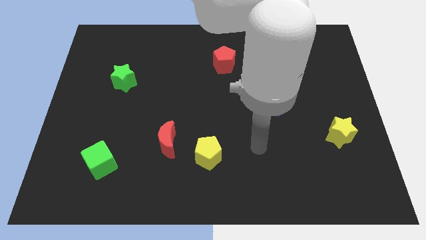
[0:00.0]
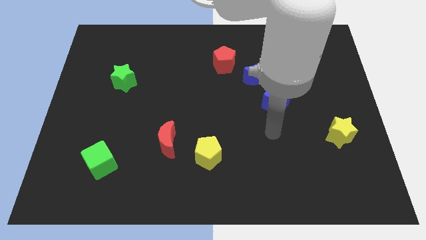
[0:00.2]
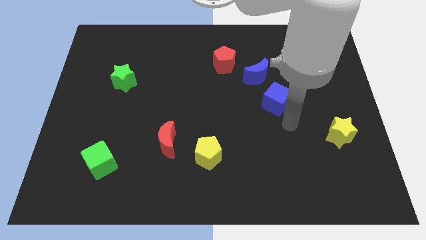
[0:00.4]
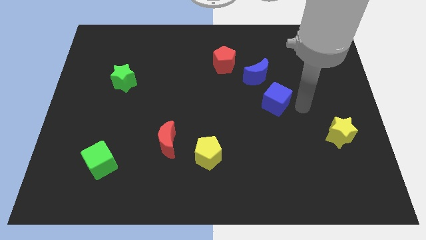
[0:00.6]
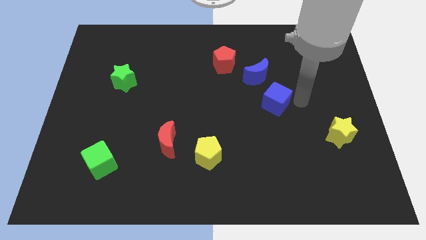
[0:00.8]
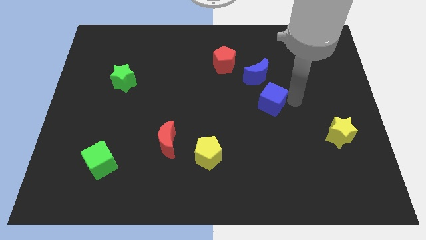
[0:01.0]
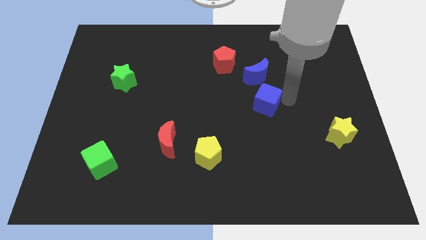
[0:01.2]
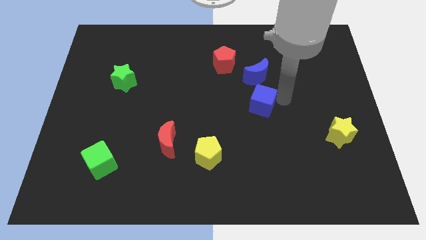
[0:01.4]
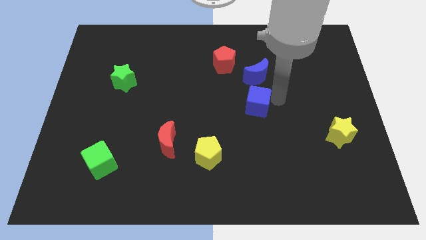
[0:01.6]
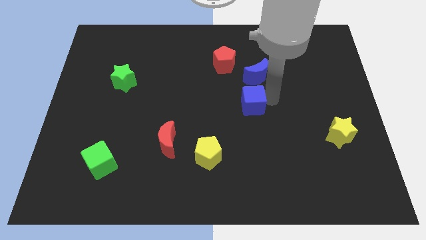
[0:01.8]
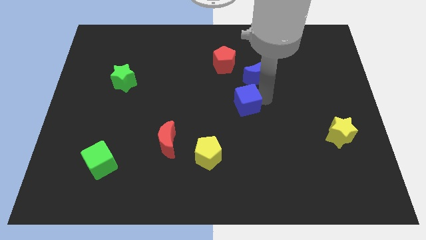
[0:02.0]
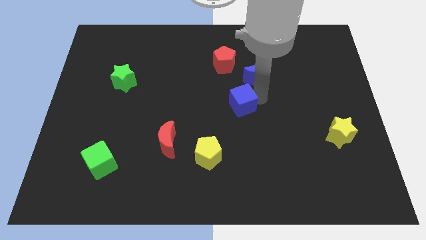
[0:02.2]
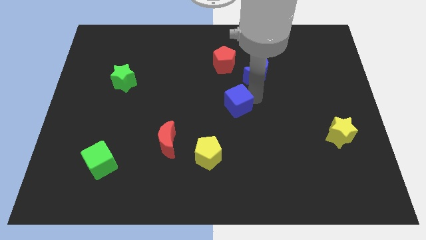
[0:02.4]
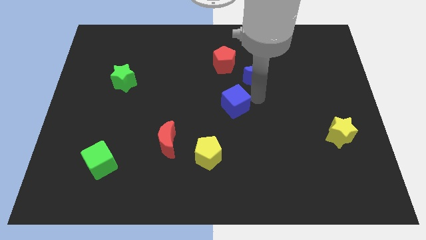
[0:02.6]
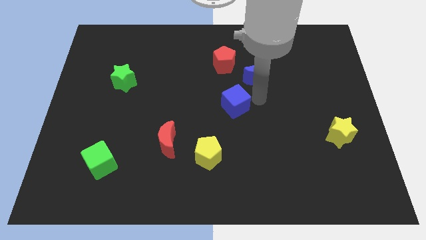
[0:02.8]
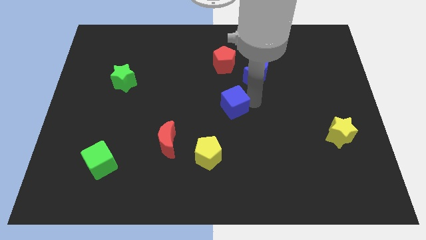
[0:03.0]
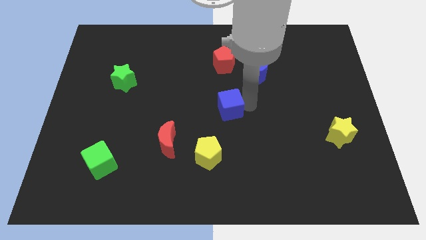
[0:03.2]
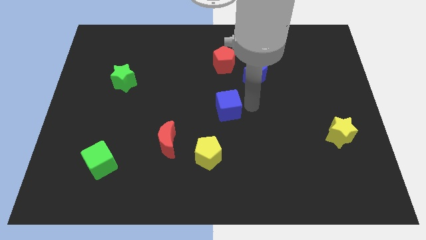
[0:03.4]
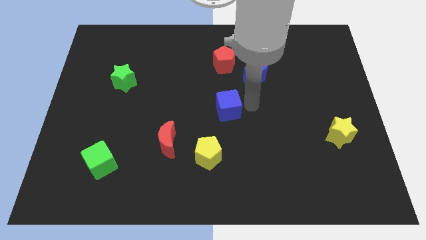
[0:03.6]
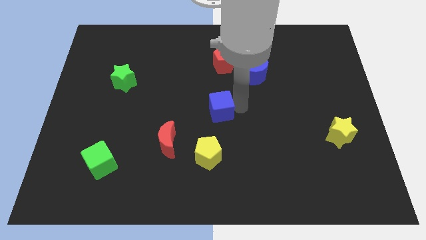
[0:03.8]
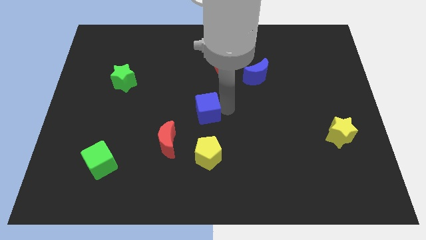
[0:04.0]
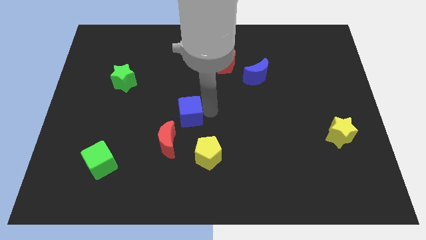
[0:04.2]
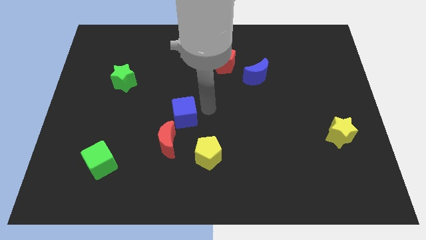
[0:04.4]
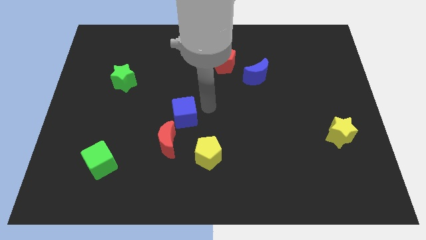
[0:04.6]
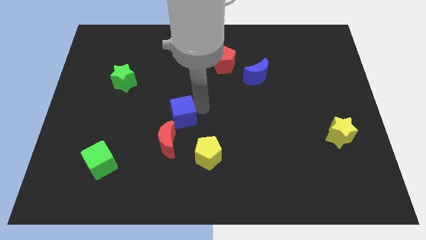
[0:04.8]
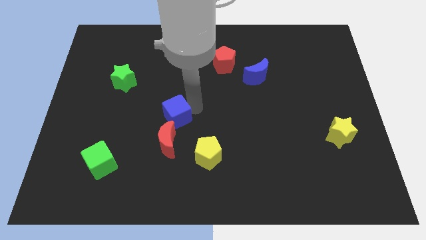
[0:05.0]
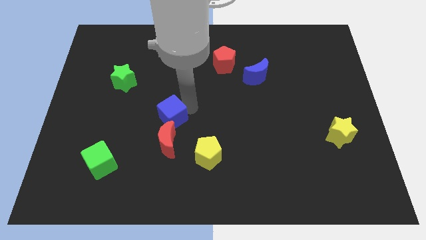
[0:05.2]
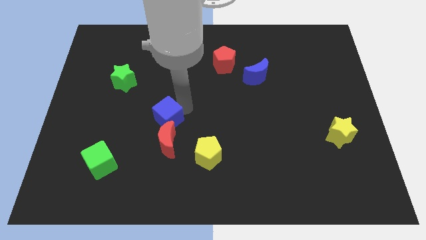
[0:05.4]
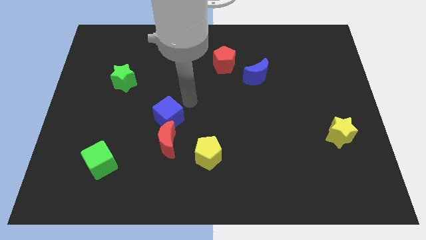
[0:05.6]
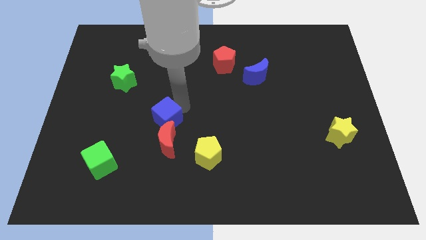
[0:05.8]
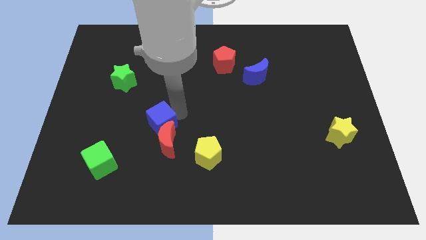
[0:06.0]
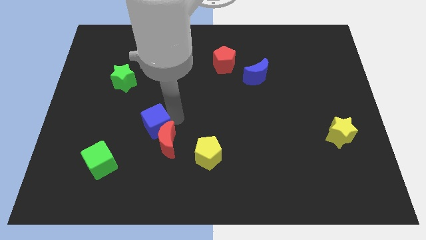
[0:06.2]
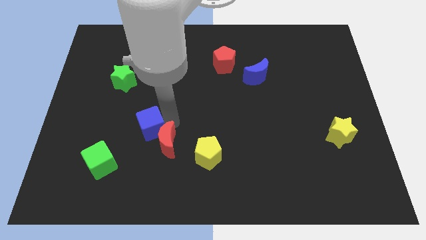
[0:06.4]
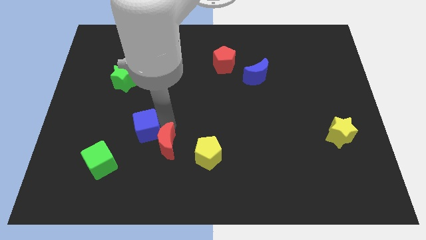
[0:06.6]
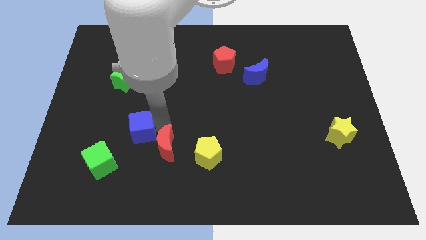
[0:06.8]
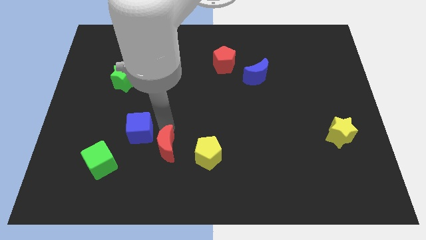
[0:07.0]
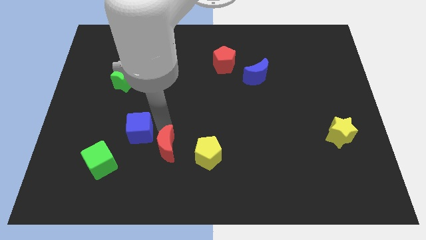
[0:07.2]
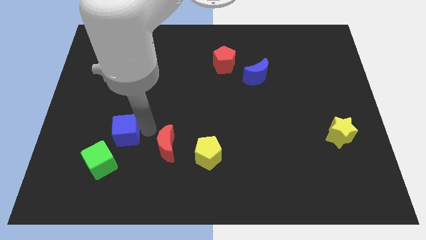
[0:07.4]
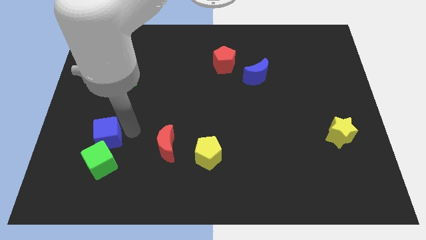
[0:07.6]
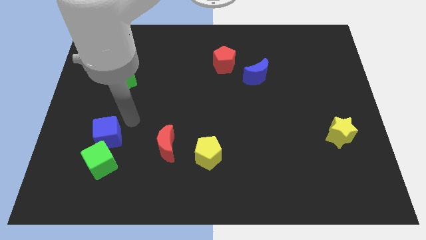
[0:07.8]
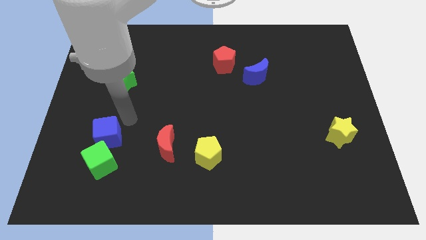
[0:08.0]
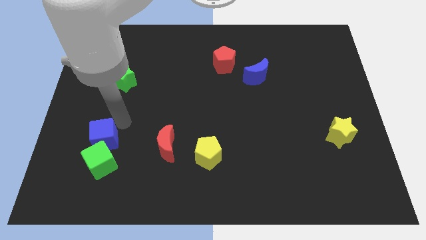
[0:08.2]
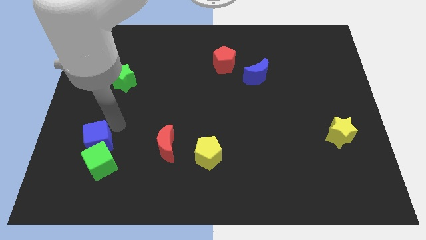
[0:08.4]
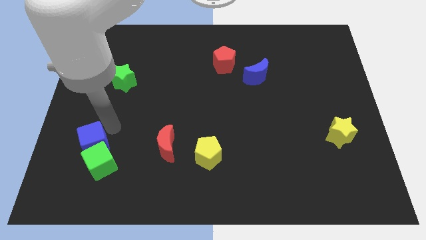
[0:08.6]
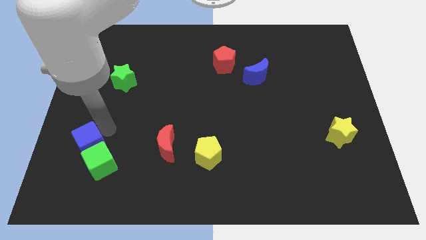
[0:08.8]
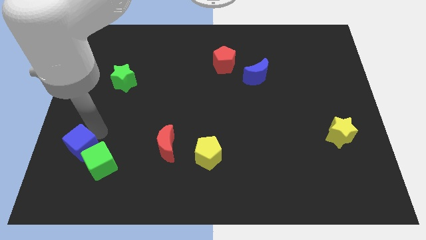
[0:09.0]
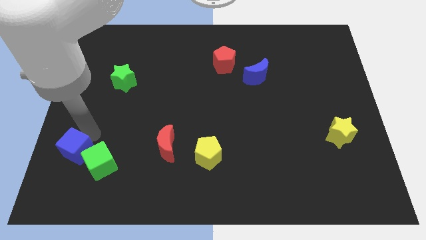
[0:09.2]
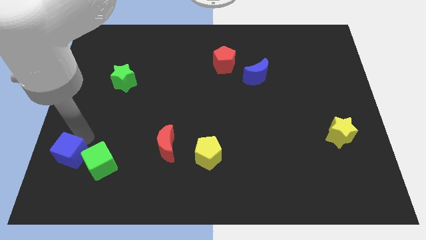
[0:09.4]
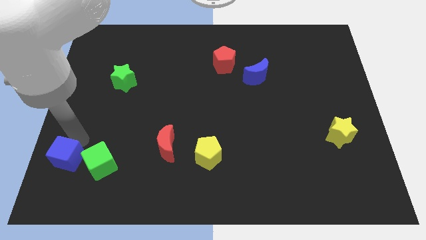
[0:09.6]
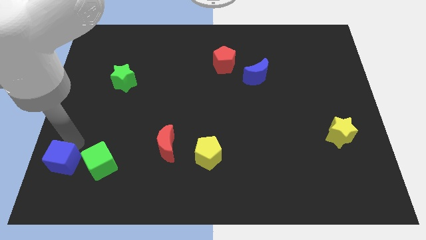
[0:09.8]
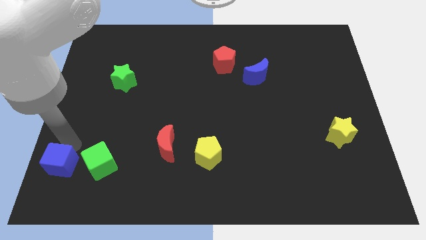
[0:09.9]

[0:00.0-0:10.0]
push the blue cube to the lower left corner

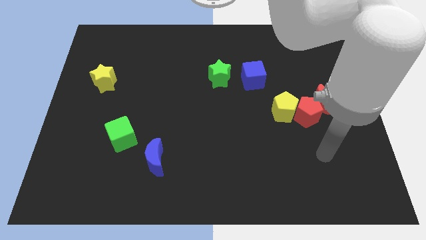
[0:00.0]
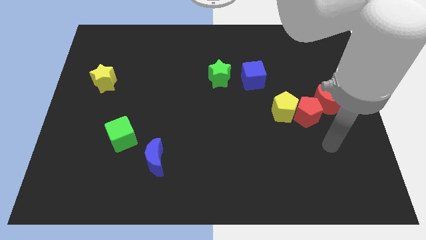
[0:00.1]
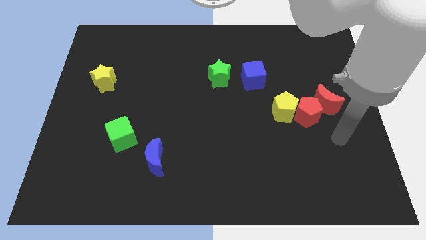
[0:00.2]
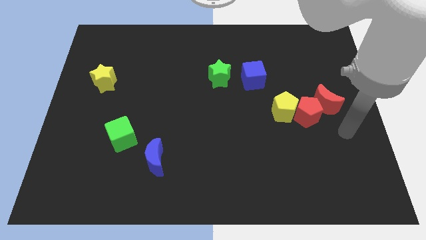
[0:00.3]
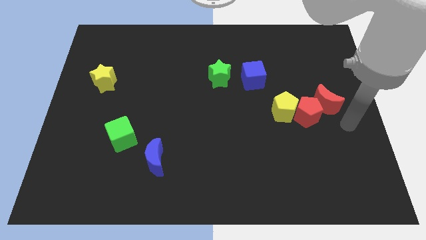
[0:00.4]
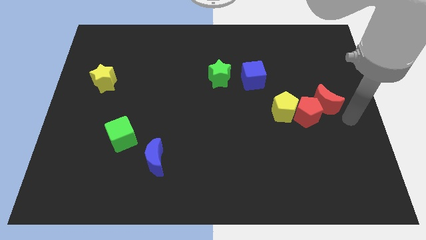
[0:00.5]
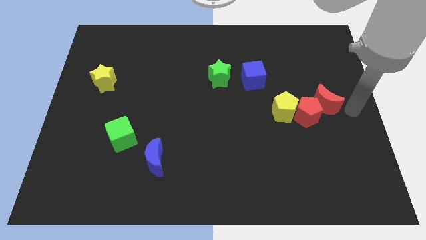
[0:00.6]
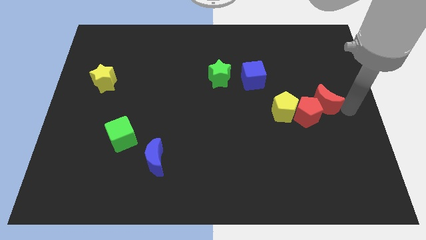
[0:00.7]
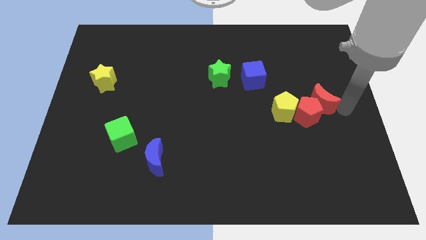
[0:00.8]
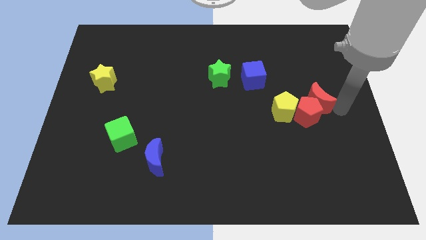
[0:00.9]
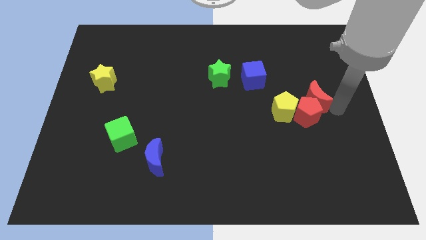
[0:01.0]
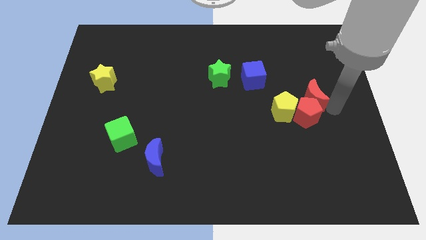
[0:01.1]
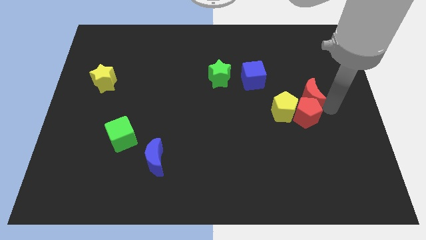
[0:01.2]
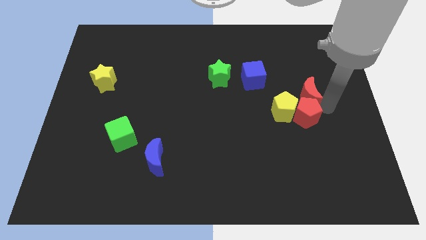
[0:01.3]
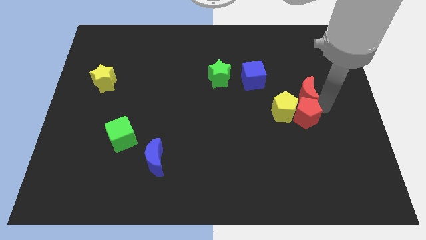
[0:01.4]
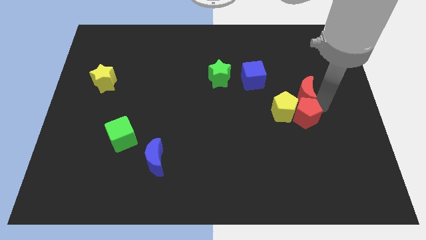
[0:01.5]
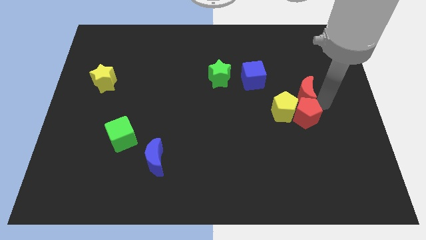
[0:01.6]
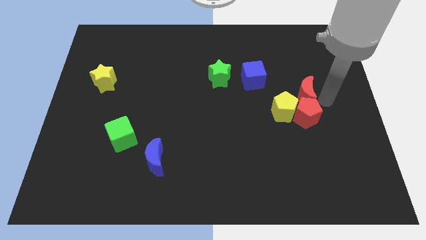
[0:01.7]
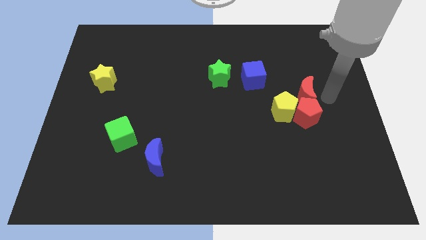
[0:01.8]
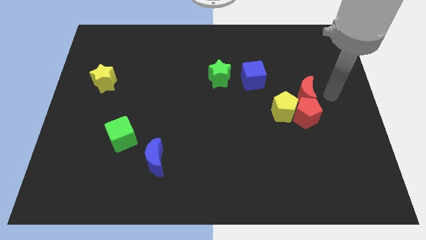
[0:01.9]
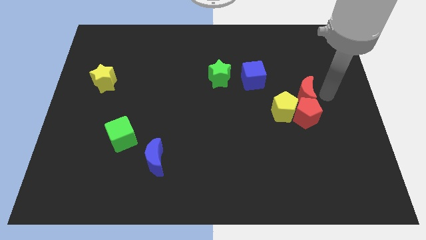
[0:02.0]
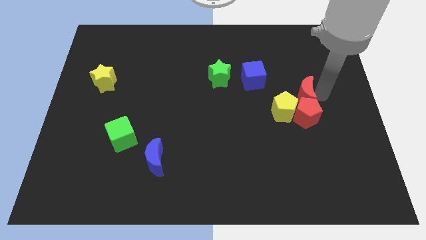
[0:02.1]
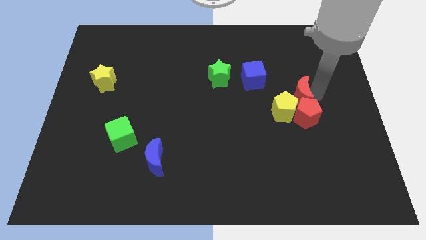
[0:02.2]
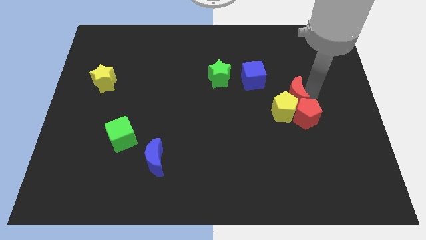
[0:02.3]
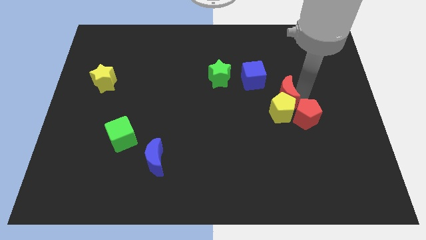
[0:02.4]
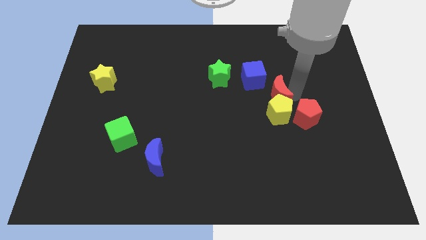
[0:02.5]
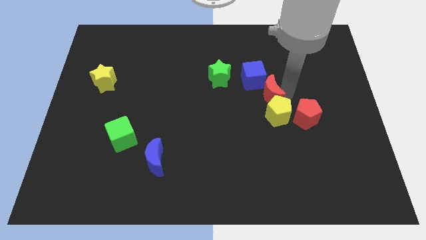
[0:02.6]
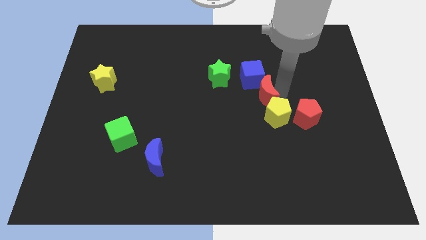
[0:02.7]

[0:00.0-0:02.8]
put the red moon to the center of the board
